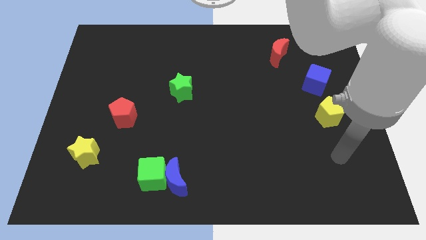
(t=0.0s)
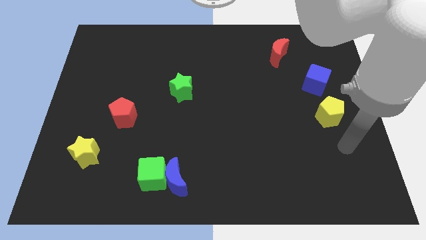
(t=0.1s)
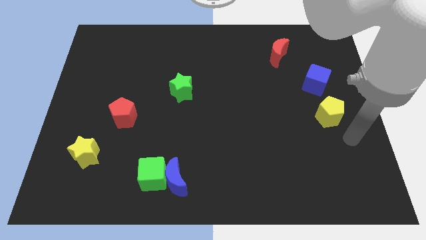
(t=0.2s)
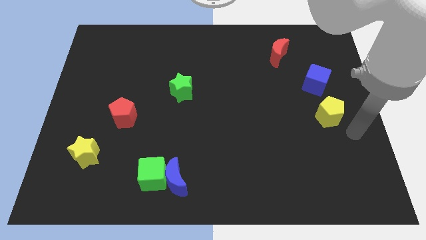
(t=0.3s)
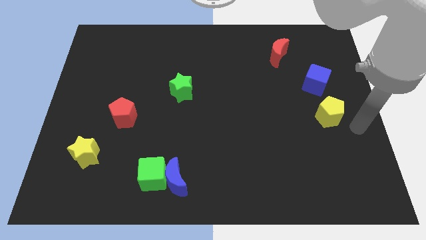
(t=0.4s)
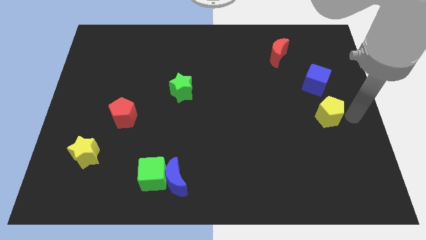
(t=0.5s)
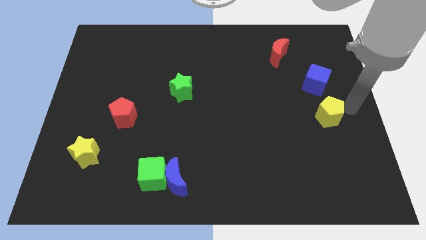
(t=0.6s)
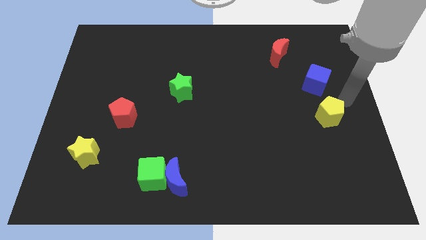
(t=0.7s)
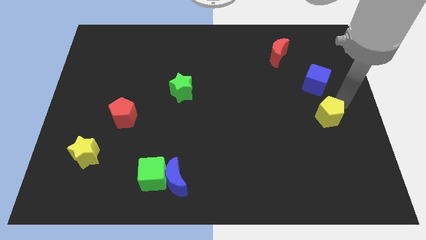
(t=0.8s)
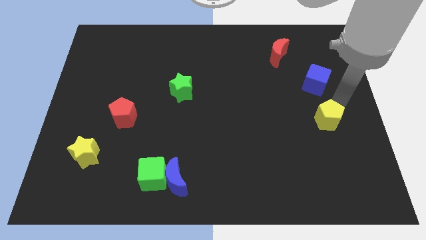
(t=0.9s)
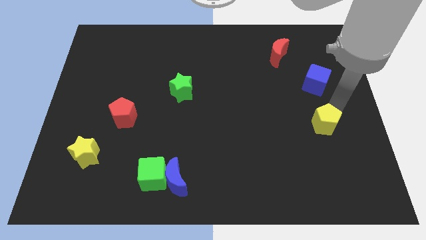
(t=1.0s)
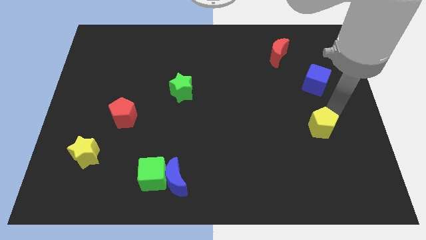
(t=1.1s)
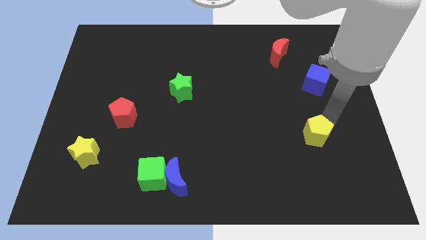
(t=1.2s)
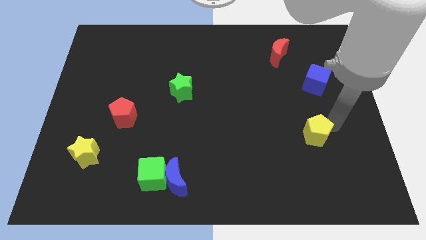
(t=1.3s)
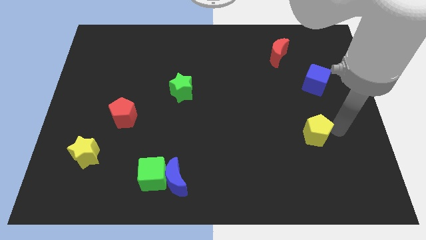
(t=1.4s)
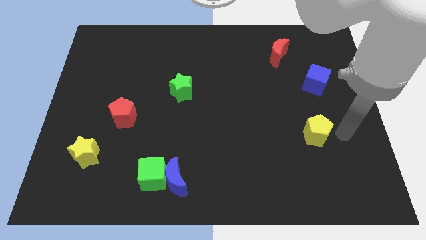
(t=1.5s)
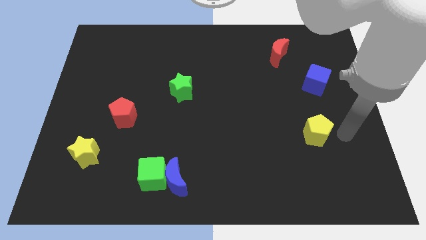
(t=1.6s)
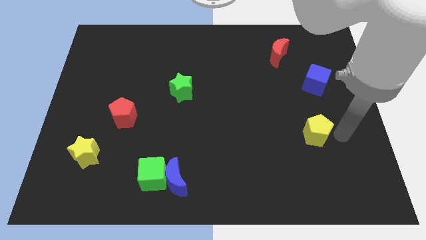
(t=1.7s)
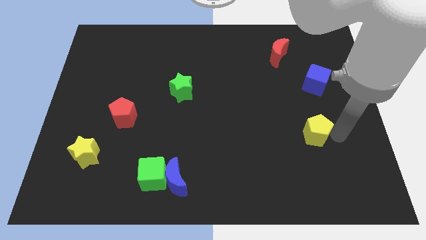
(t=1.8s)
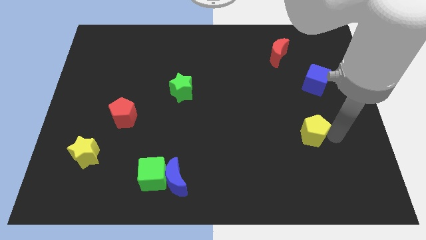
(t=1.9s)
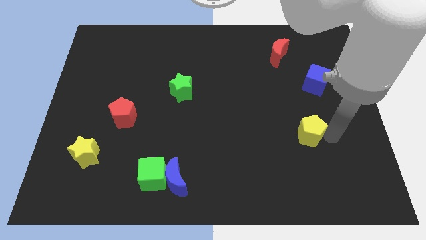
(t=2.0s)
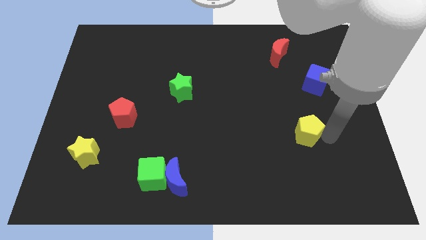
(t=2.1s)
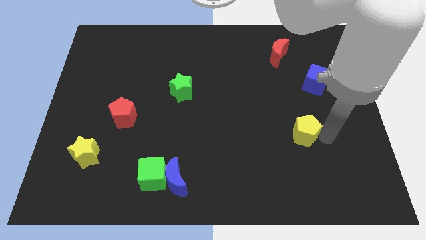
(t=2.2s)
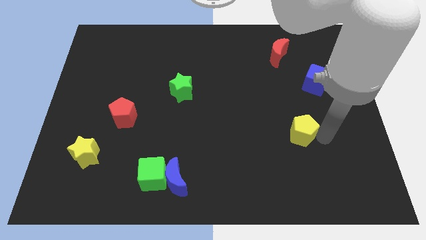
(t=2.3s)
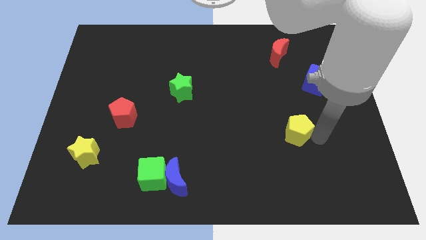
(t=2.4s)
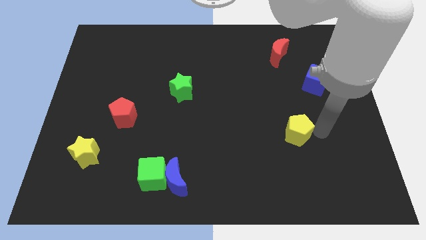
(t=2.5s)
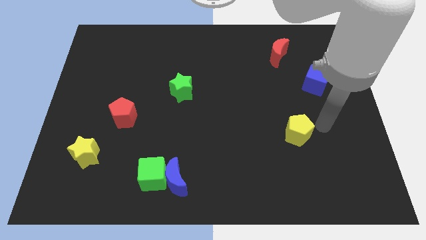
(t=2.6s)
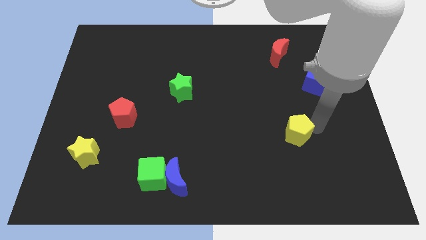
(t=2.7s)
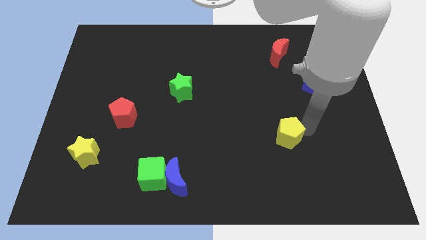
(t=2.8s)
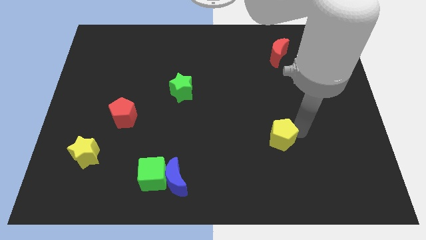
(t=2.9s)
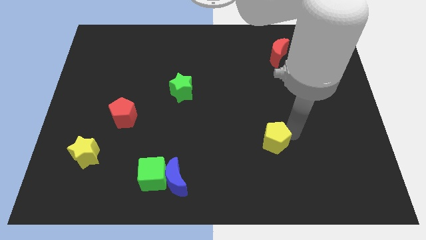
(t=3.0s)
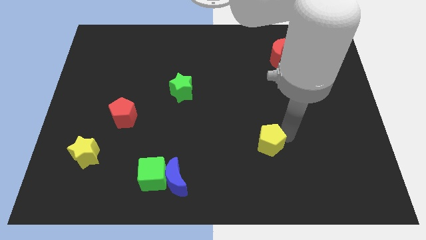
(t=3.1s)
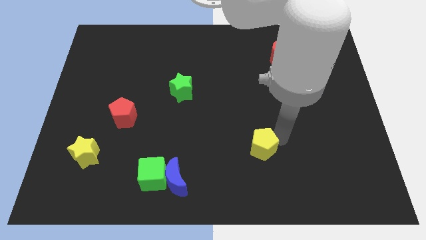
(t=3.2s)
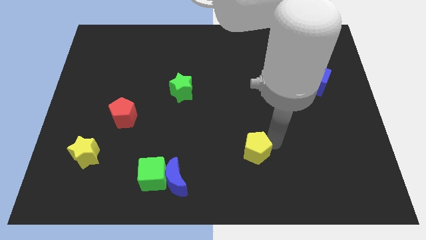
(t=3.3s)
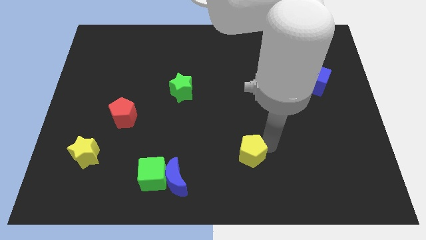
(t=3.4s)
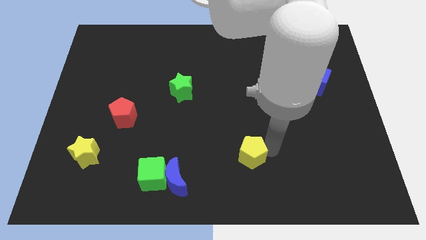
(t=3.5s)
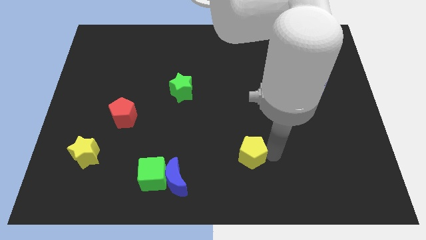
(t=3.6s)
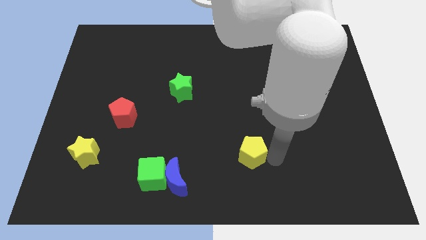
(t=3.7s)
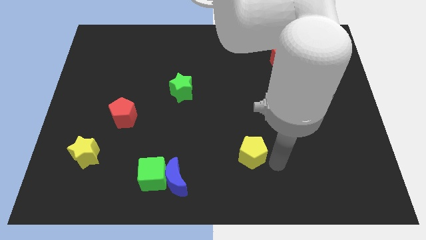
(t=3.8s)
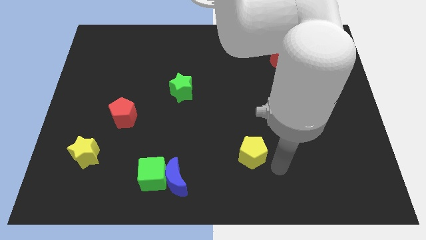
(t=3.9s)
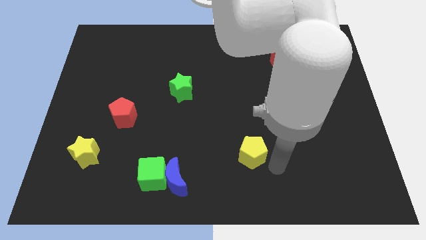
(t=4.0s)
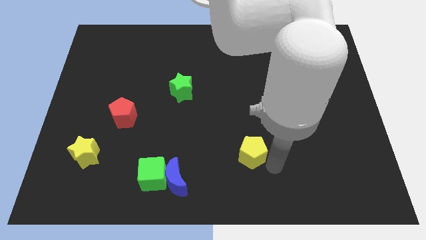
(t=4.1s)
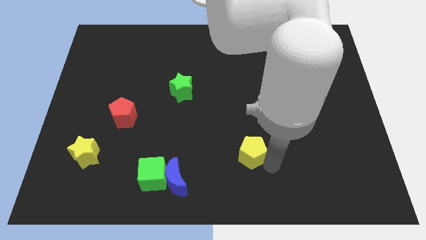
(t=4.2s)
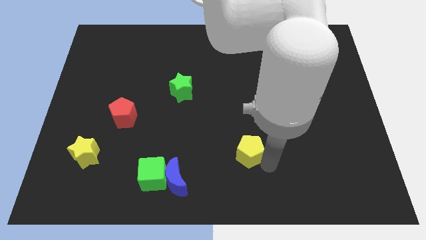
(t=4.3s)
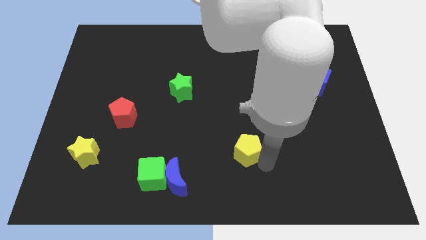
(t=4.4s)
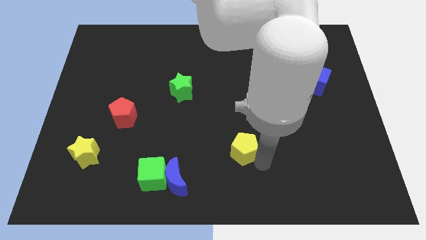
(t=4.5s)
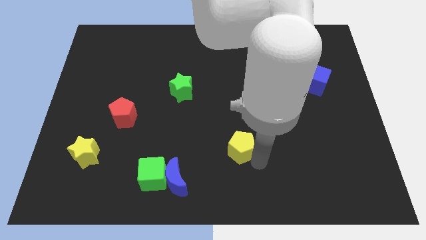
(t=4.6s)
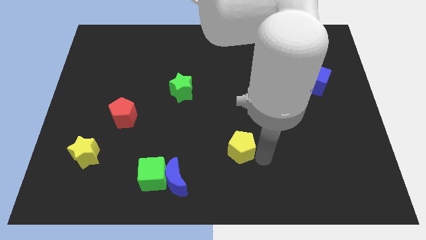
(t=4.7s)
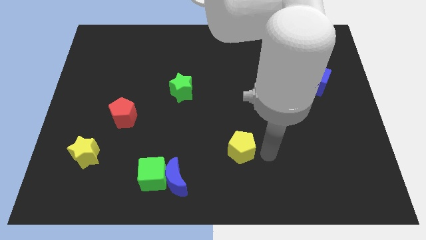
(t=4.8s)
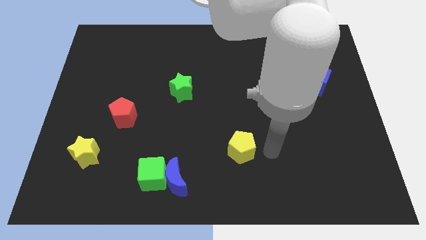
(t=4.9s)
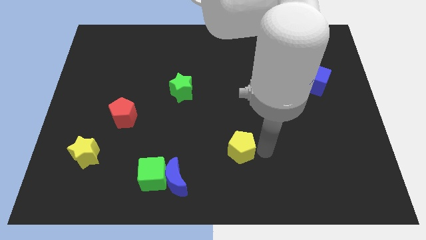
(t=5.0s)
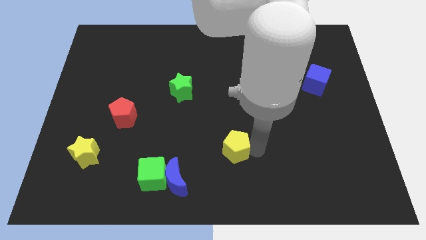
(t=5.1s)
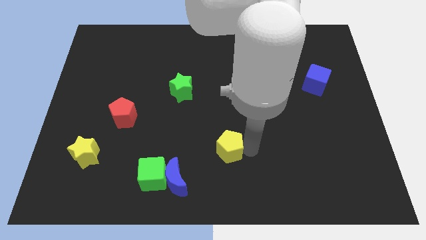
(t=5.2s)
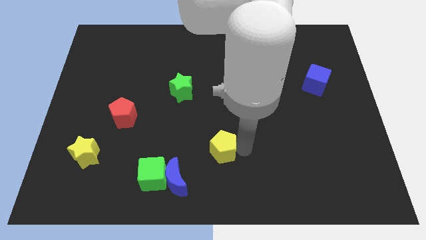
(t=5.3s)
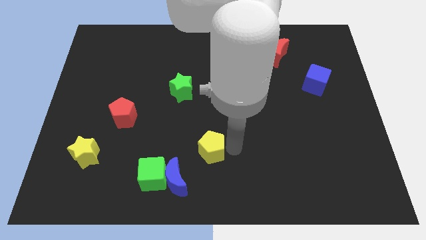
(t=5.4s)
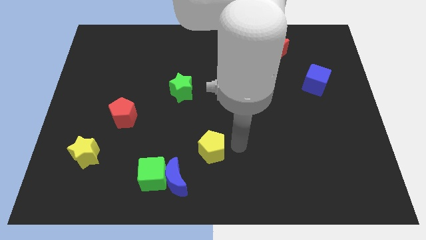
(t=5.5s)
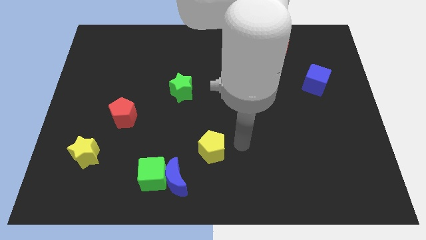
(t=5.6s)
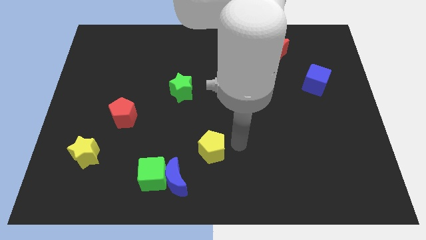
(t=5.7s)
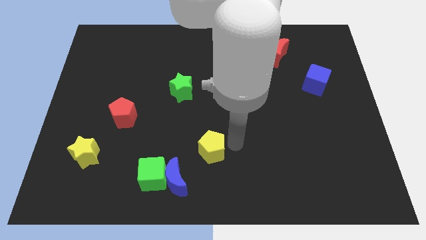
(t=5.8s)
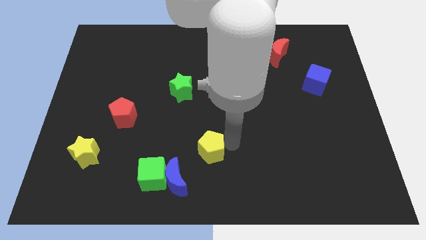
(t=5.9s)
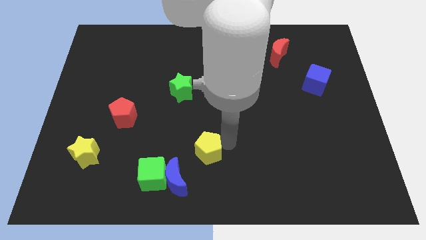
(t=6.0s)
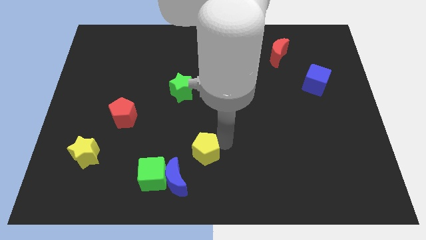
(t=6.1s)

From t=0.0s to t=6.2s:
move the yellow pentagon diagonally up and to the right of the green cube
